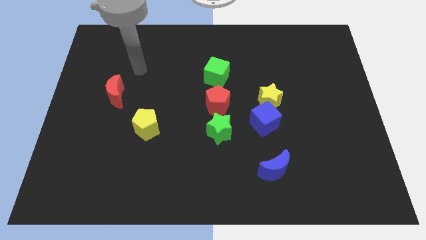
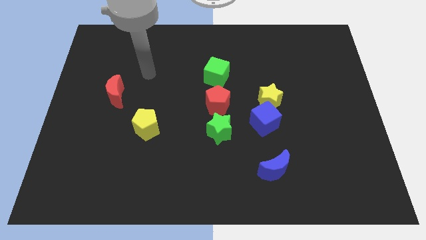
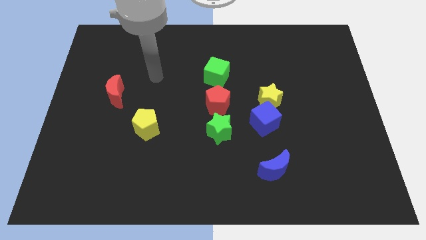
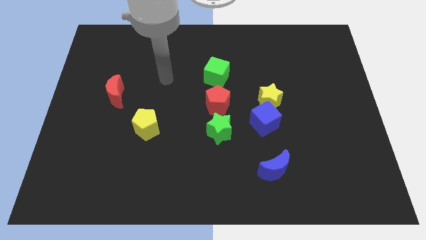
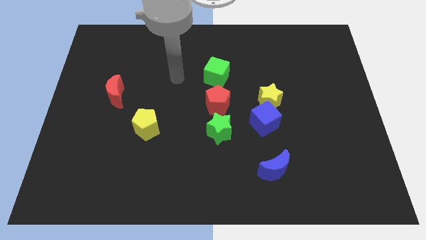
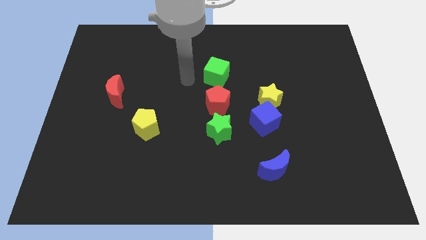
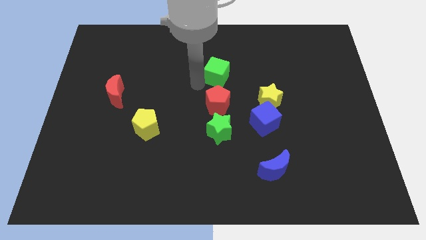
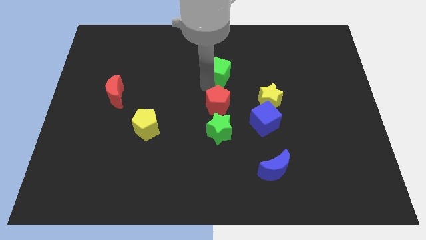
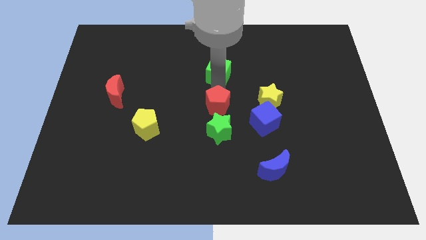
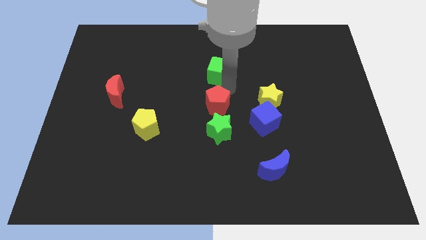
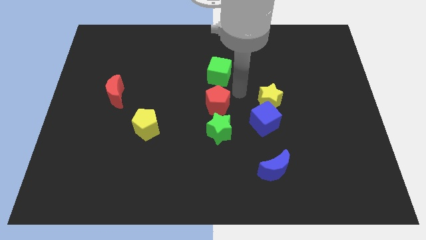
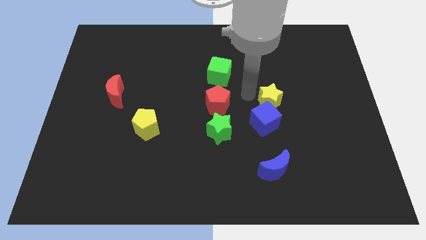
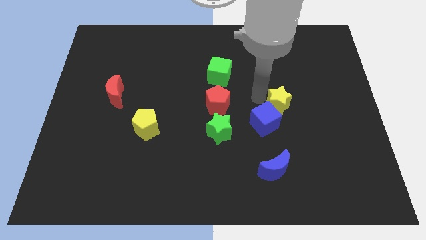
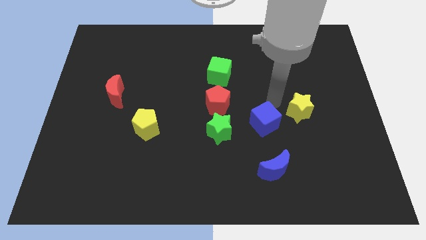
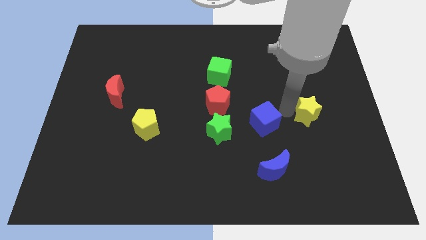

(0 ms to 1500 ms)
move the blue cube away from the yellow star

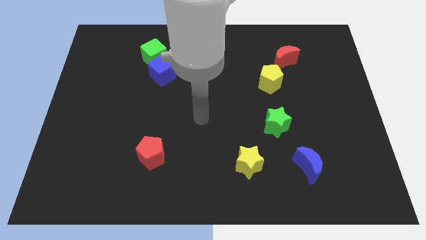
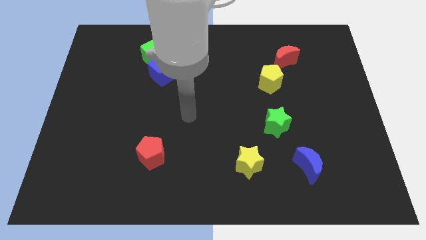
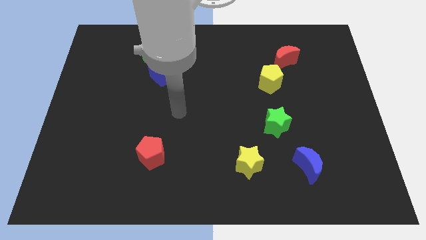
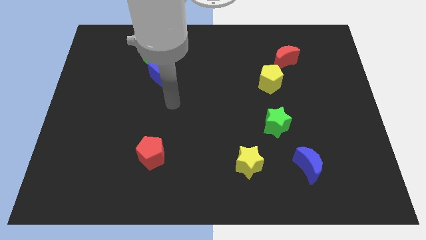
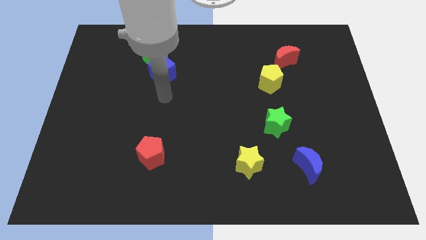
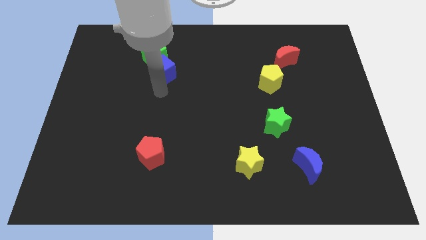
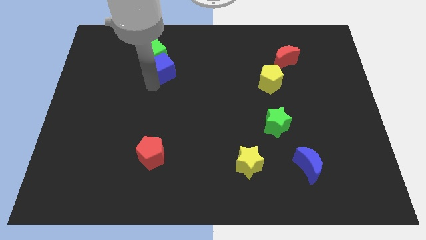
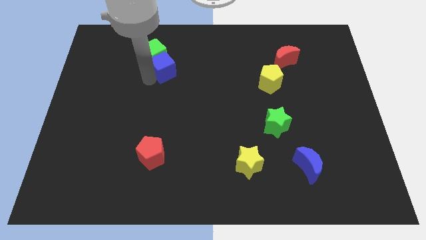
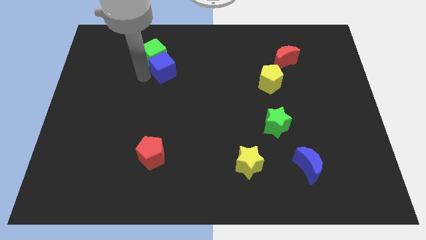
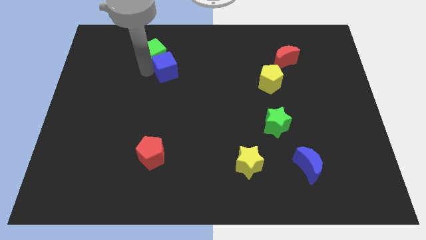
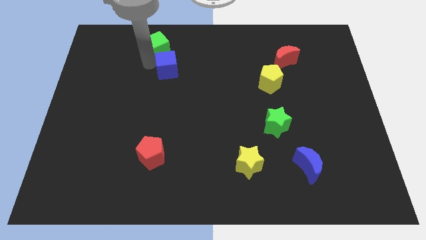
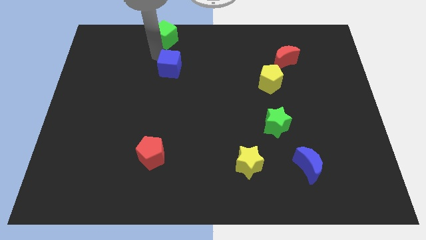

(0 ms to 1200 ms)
pull the blue cube apart from the green cube

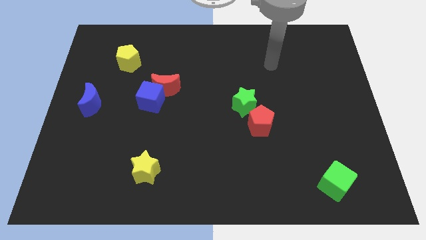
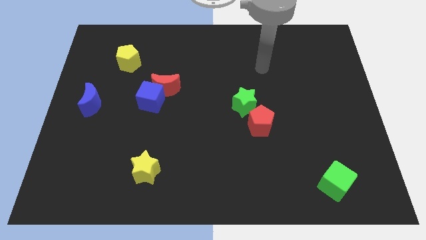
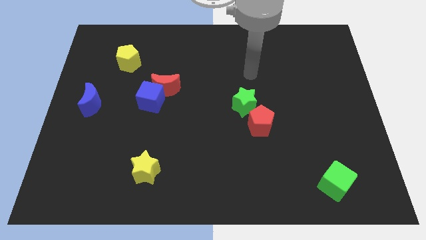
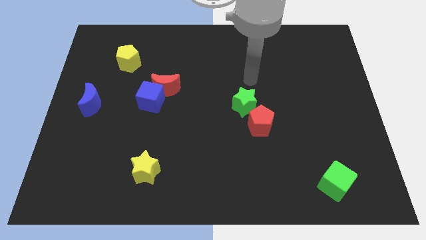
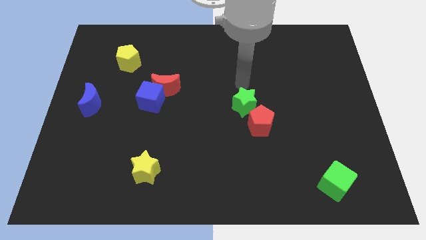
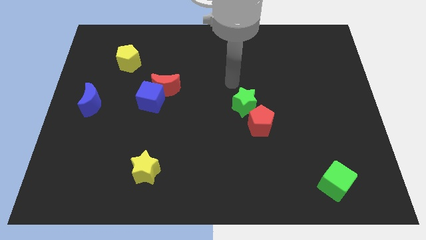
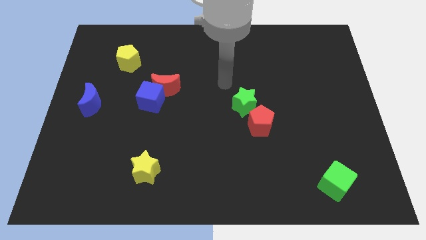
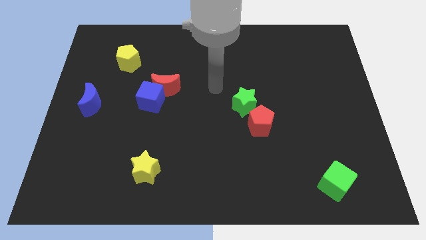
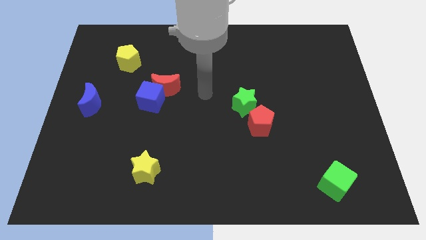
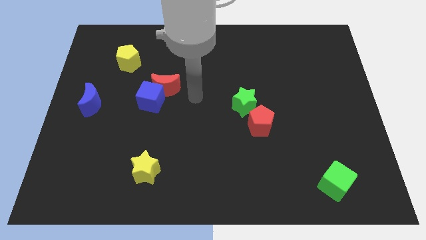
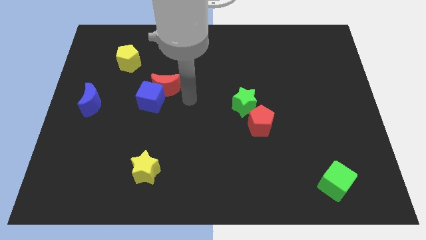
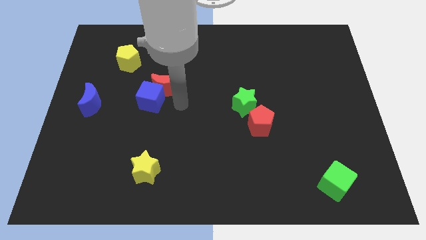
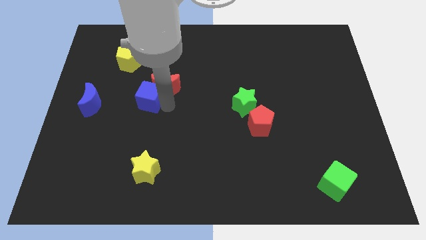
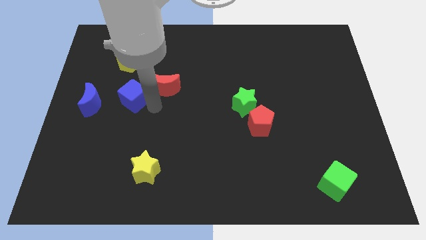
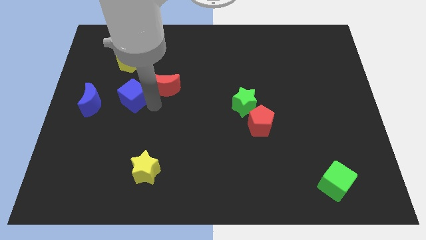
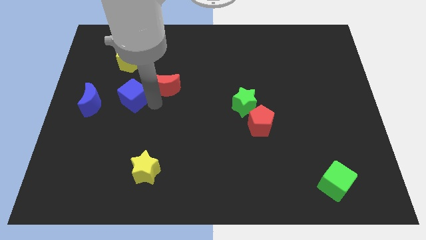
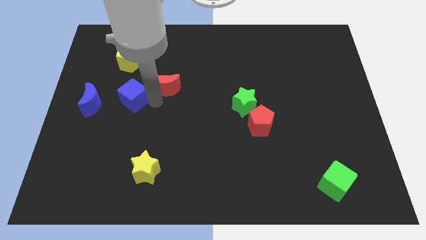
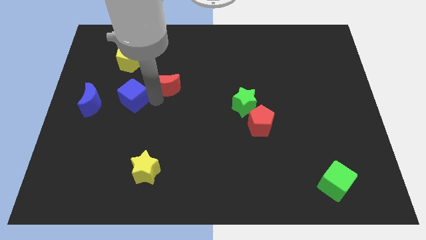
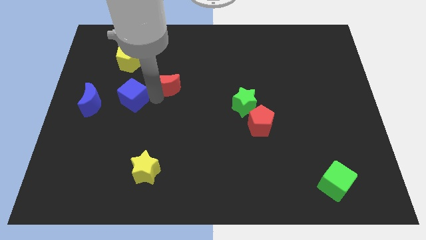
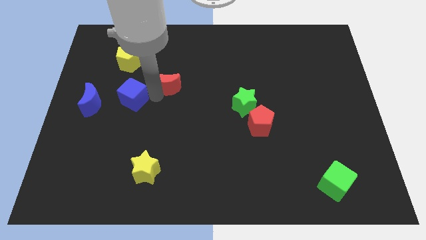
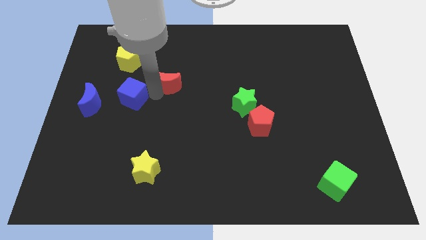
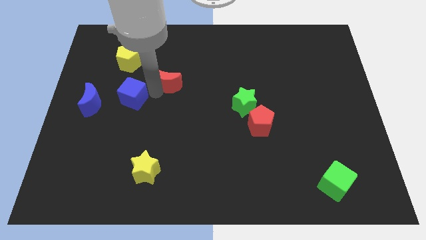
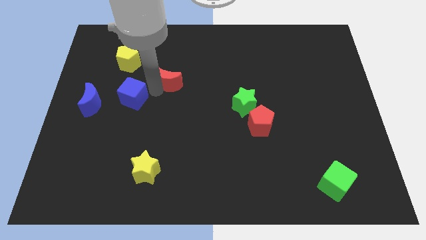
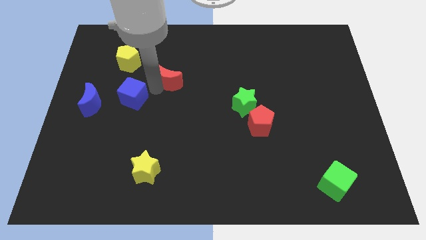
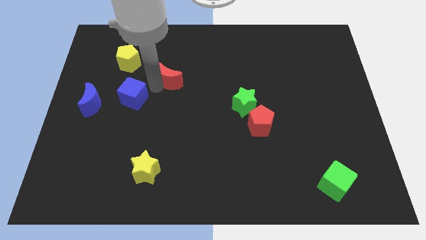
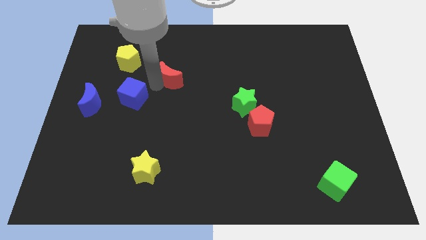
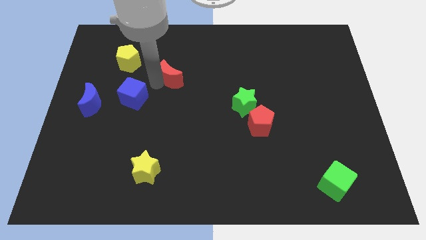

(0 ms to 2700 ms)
separate the red moon from the blue cube

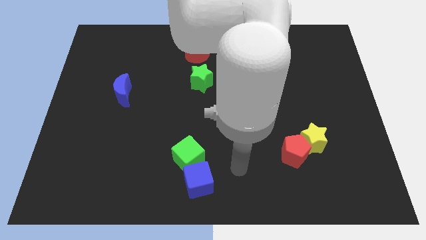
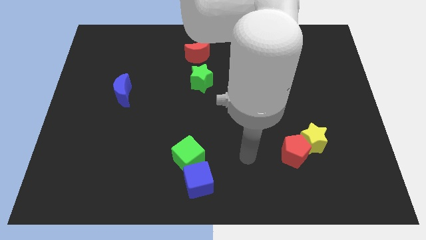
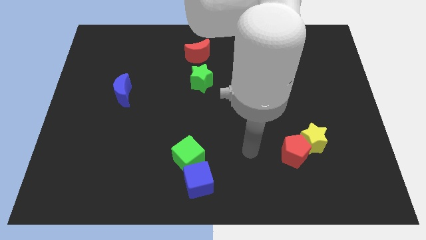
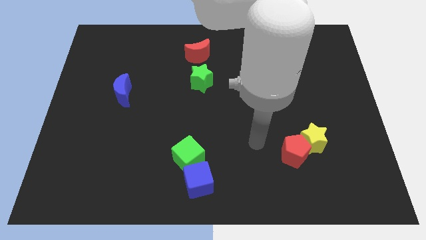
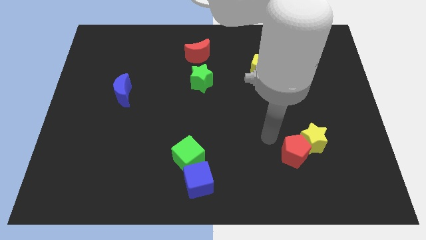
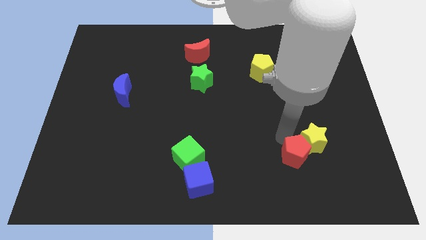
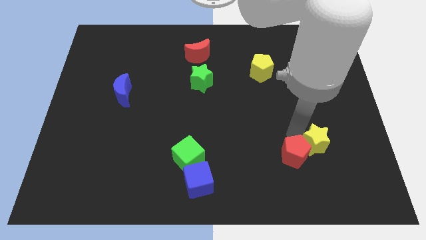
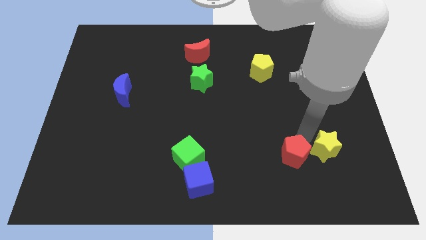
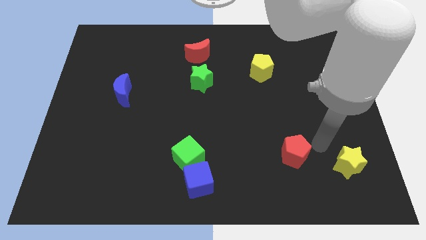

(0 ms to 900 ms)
pull the red pentagon apart from the yellow star

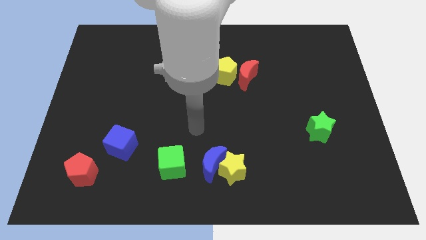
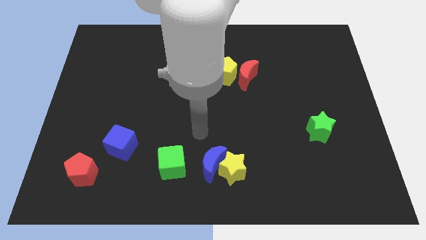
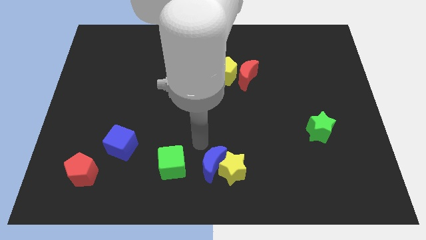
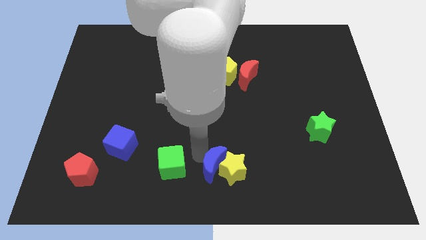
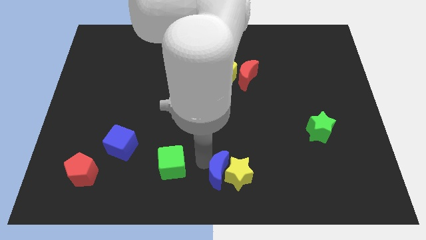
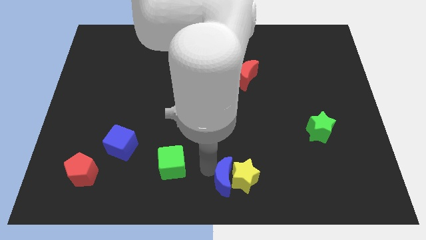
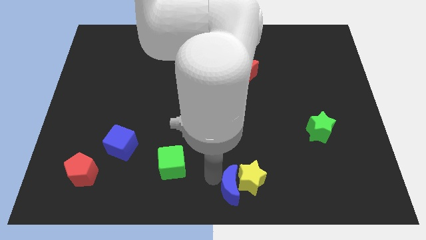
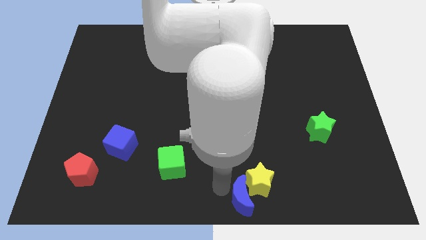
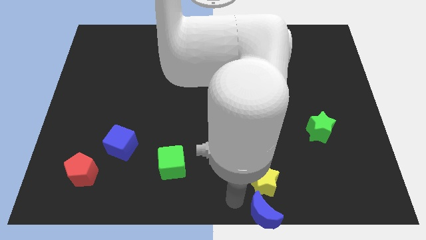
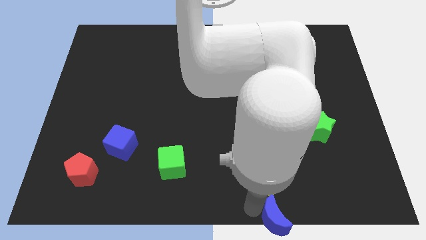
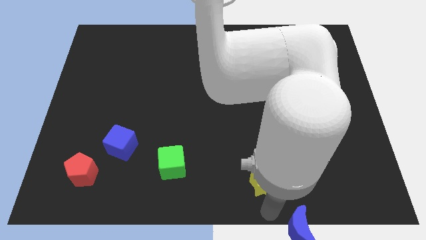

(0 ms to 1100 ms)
move the yellow star away from the blue moon

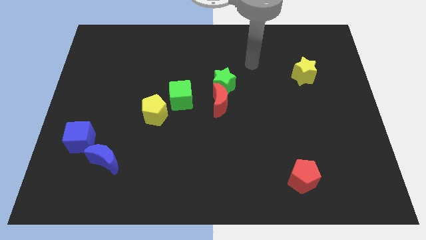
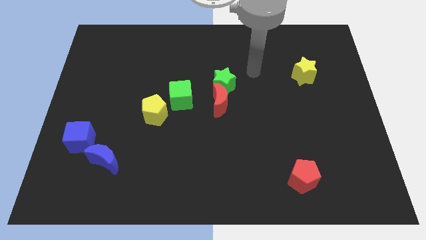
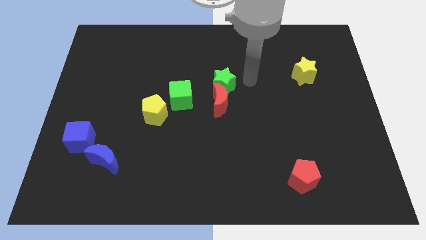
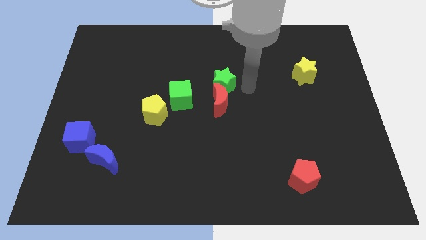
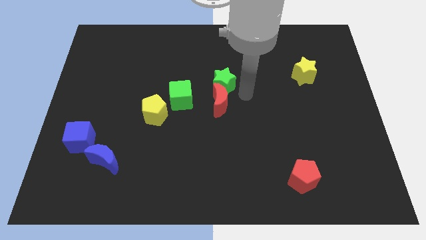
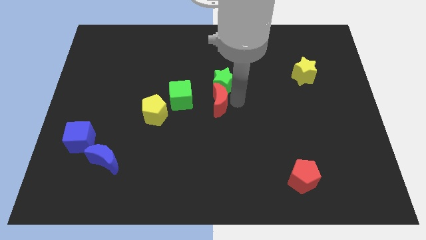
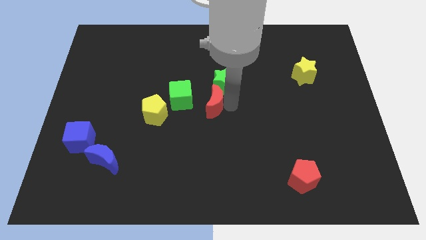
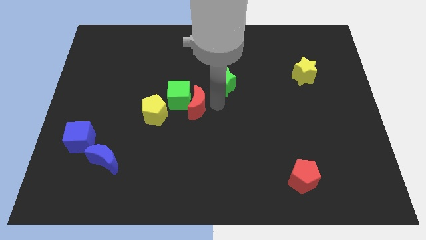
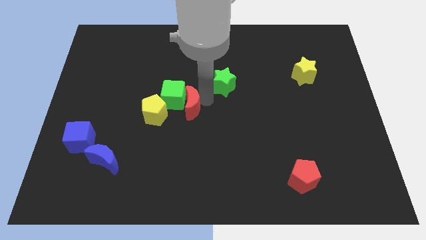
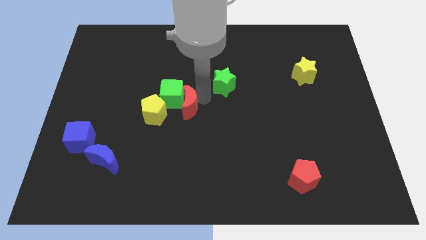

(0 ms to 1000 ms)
move the green star away from the red moon

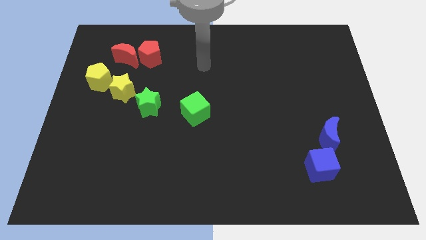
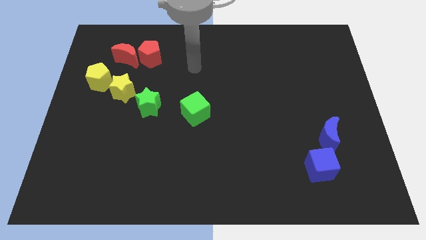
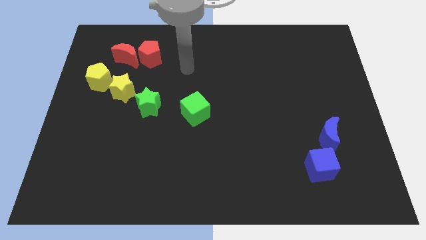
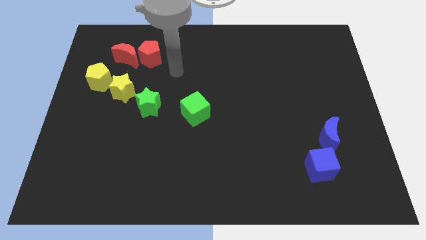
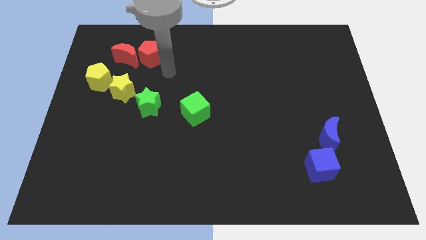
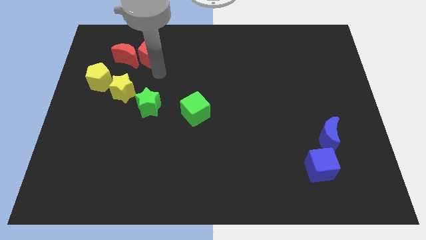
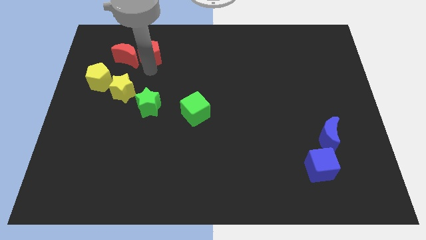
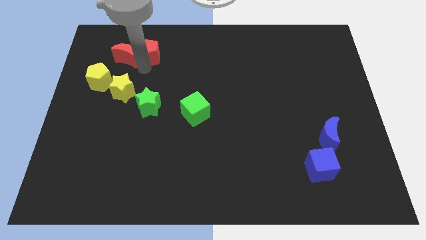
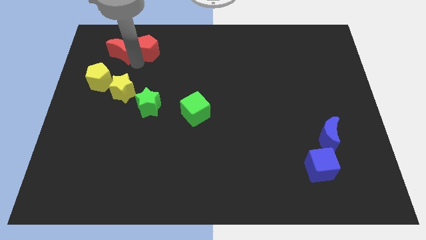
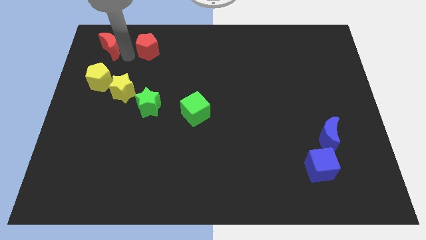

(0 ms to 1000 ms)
pull the red pentagon apart from the red moon
